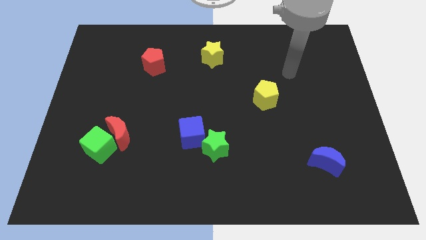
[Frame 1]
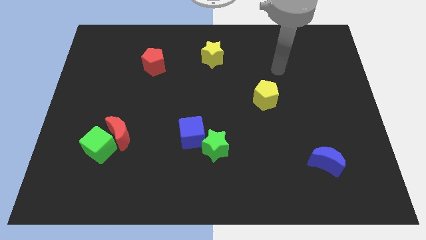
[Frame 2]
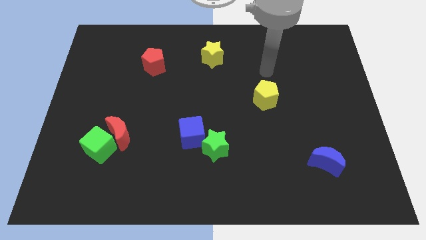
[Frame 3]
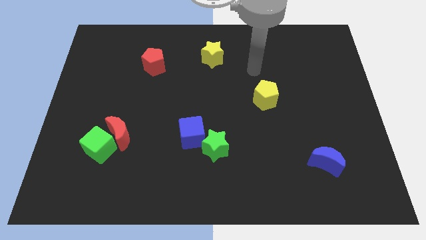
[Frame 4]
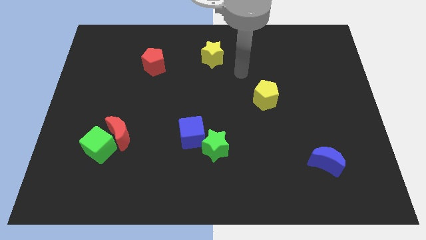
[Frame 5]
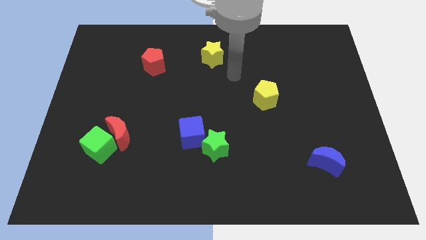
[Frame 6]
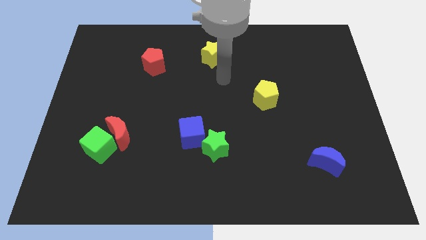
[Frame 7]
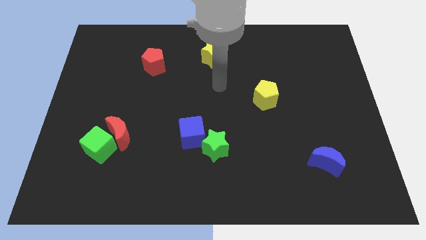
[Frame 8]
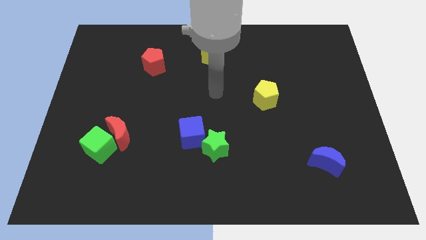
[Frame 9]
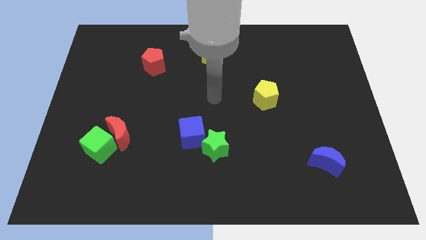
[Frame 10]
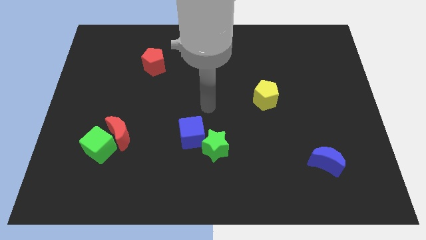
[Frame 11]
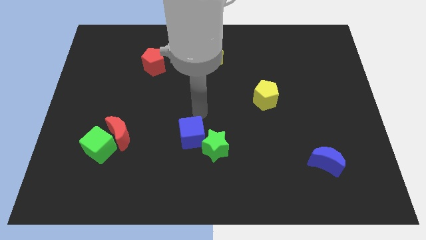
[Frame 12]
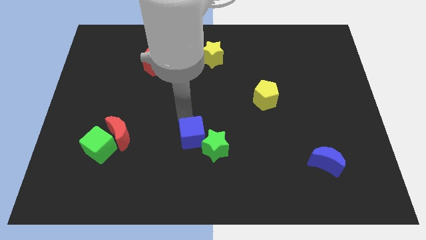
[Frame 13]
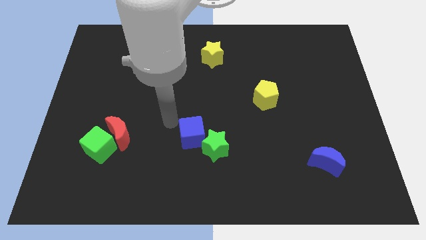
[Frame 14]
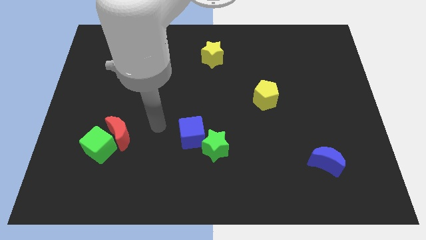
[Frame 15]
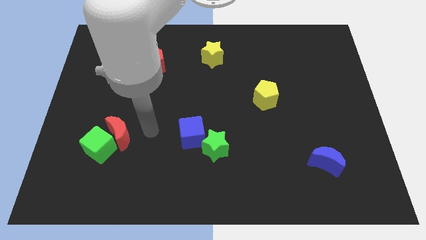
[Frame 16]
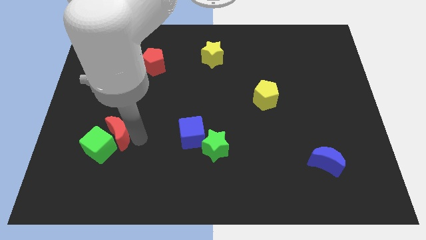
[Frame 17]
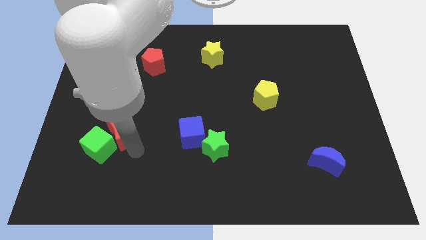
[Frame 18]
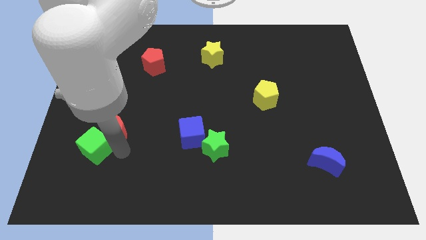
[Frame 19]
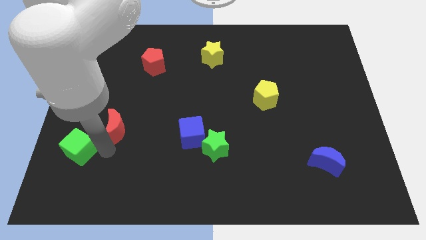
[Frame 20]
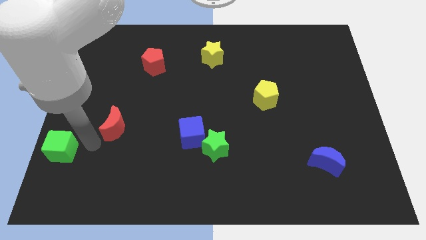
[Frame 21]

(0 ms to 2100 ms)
separate the red moon from the green cube

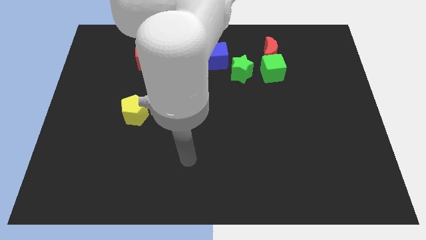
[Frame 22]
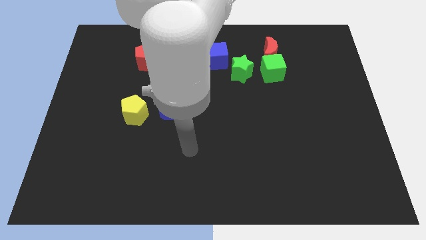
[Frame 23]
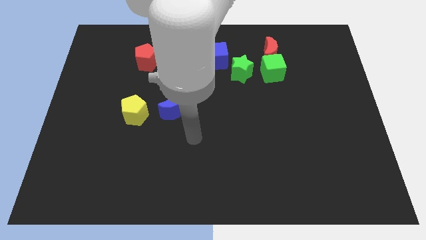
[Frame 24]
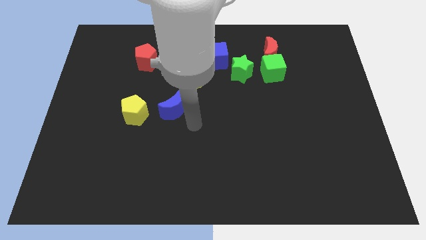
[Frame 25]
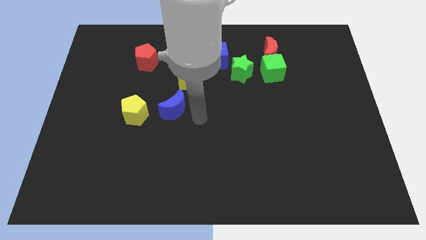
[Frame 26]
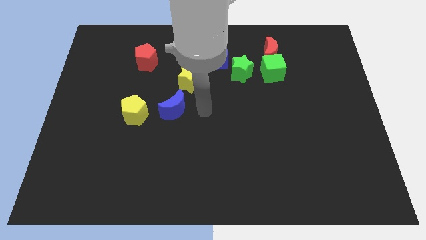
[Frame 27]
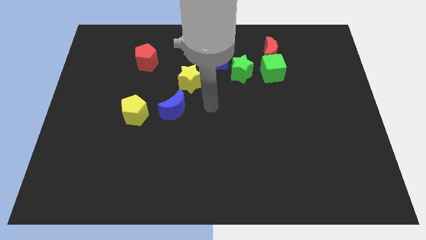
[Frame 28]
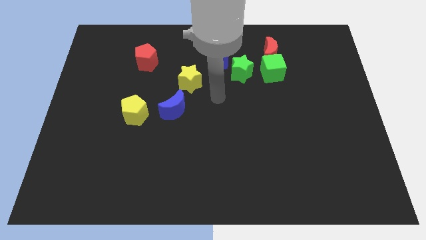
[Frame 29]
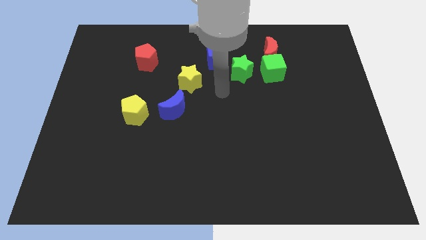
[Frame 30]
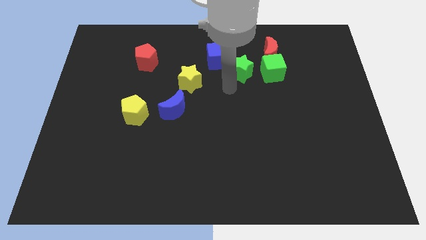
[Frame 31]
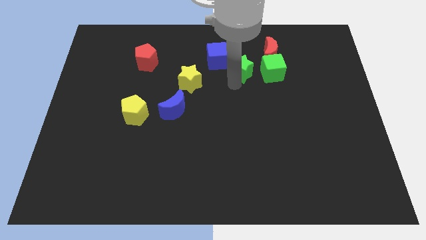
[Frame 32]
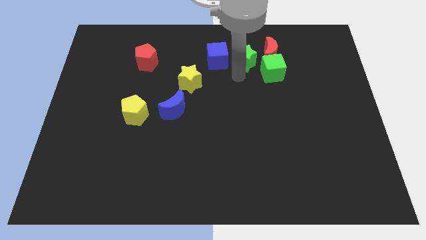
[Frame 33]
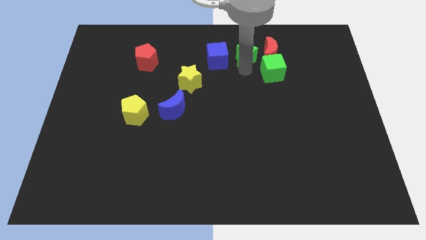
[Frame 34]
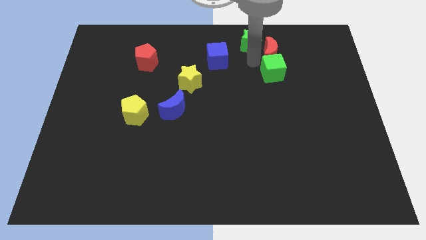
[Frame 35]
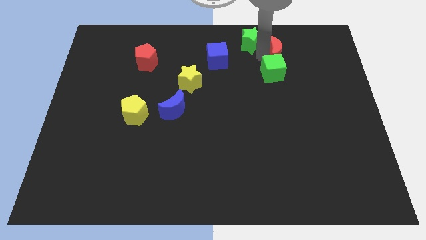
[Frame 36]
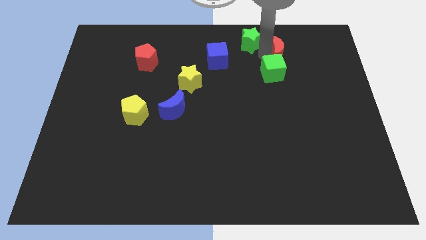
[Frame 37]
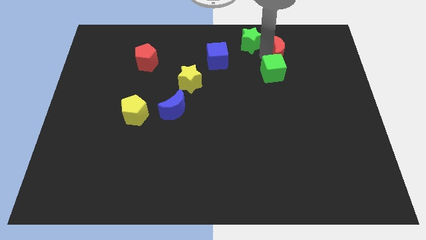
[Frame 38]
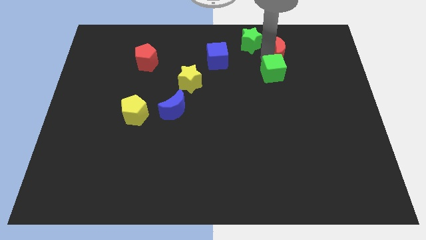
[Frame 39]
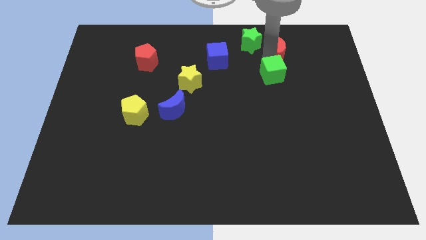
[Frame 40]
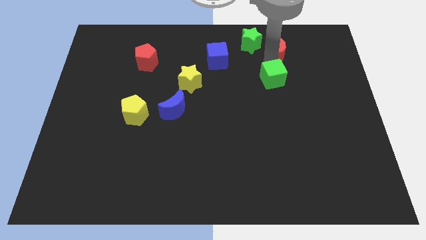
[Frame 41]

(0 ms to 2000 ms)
move the green cube away from the red moon and green star

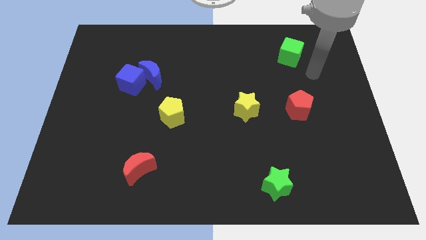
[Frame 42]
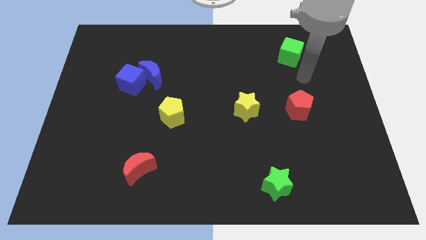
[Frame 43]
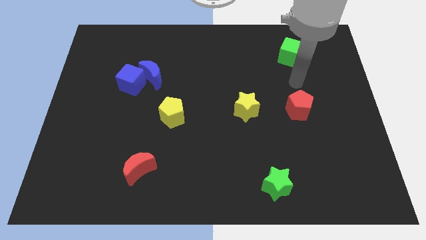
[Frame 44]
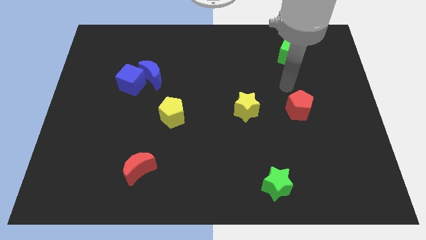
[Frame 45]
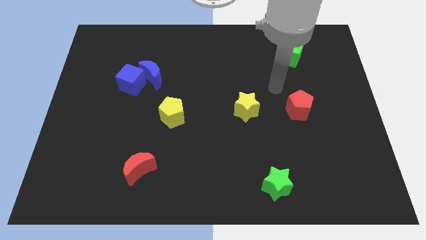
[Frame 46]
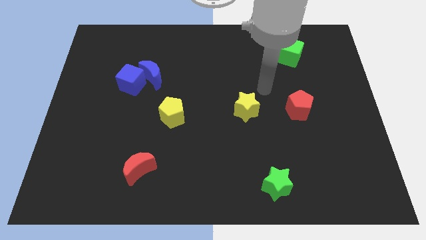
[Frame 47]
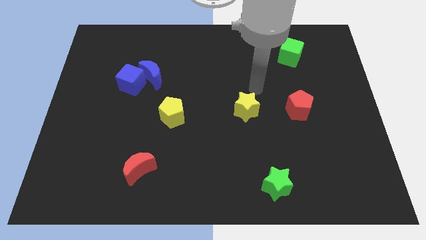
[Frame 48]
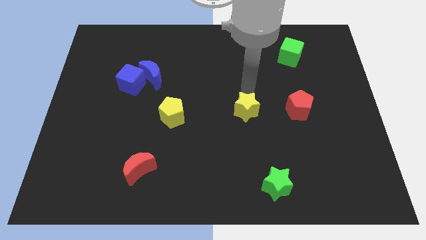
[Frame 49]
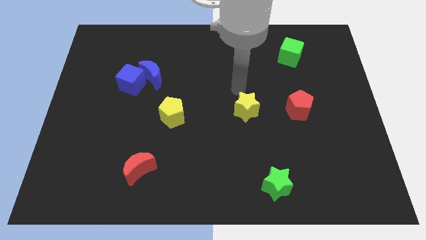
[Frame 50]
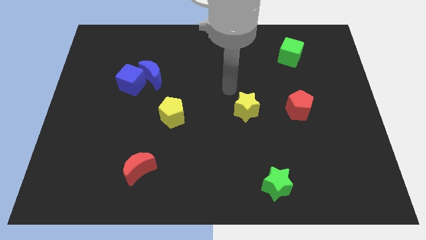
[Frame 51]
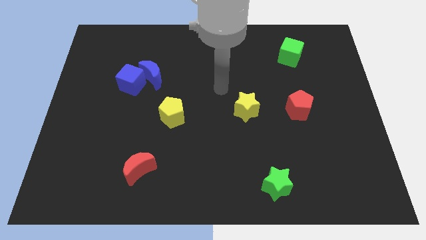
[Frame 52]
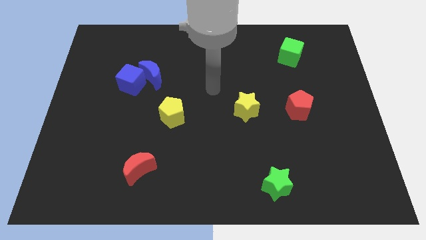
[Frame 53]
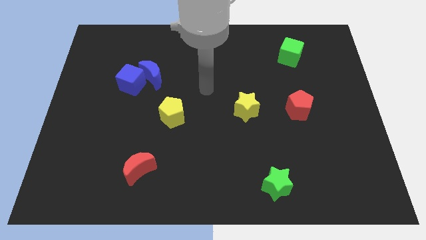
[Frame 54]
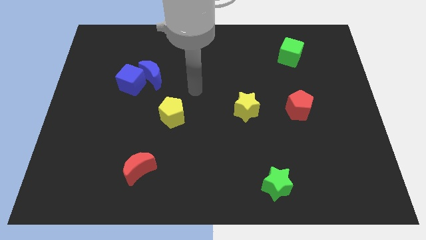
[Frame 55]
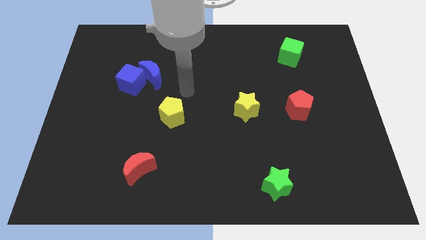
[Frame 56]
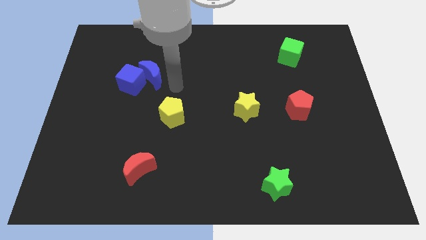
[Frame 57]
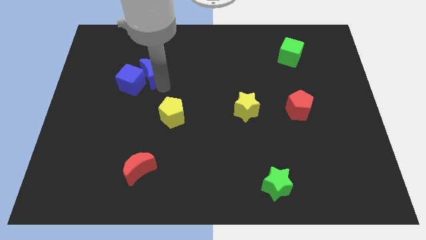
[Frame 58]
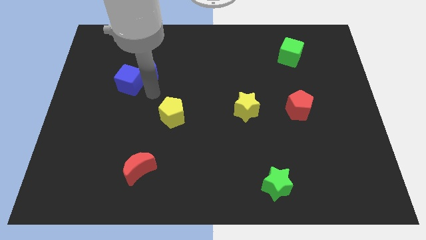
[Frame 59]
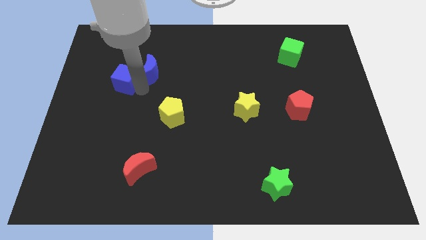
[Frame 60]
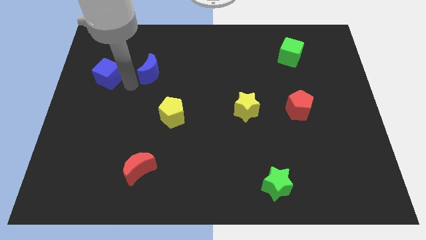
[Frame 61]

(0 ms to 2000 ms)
separate the blue moon from the blue cube

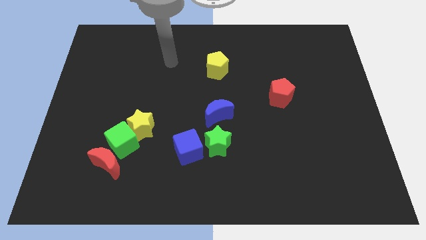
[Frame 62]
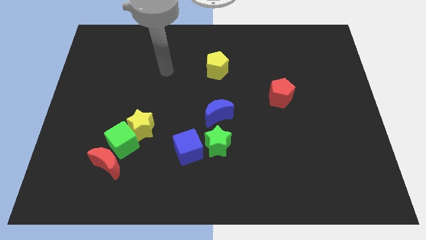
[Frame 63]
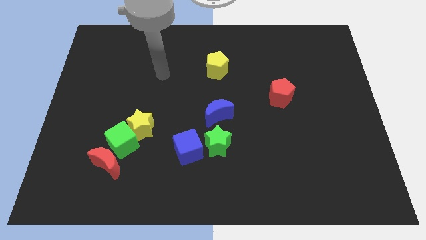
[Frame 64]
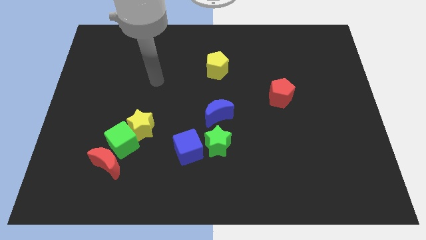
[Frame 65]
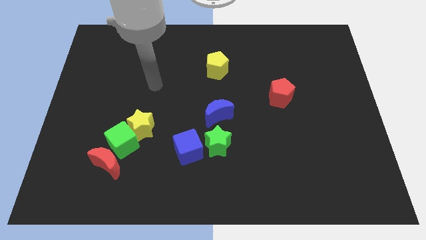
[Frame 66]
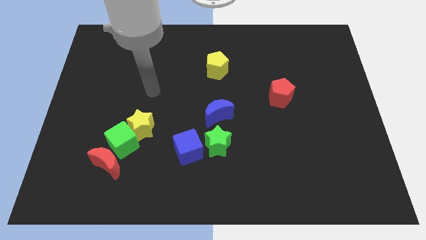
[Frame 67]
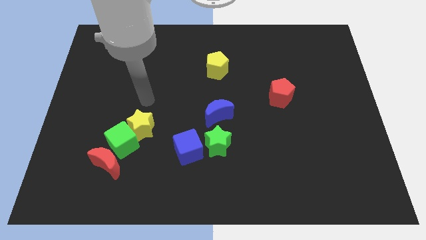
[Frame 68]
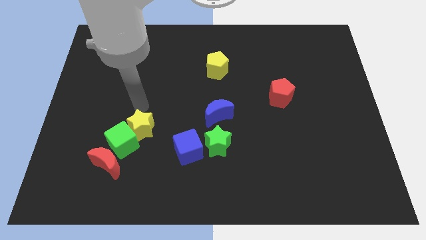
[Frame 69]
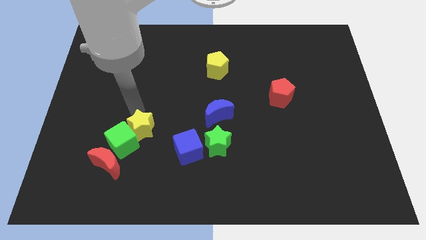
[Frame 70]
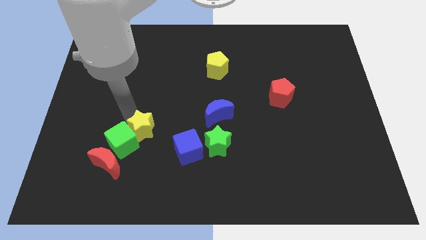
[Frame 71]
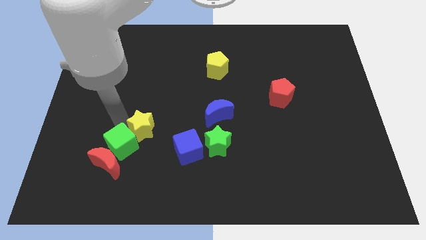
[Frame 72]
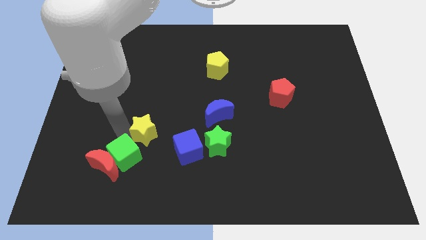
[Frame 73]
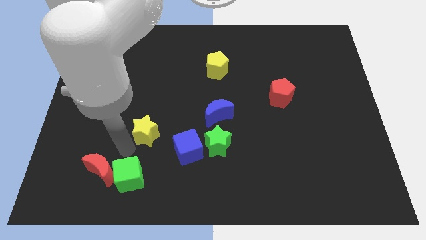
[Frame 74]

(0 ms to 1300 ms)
pull the yellow star apart from the green cube

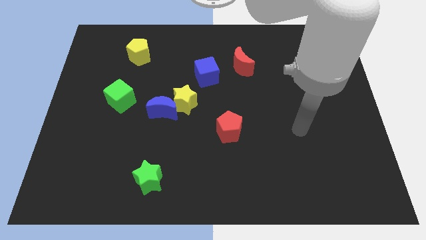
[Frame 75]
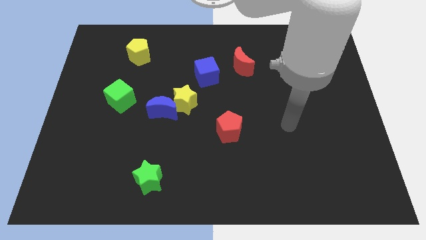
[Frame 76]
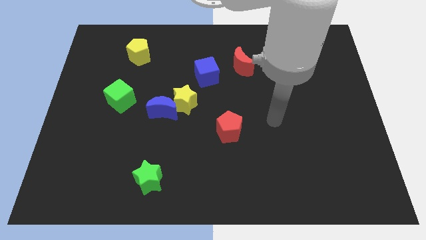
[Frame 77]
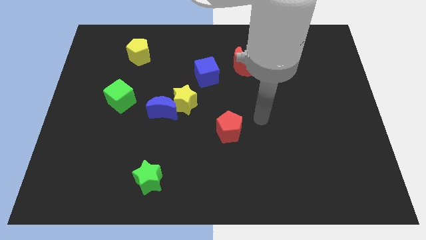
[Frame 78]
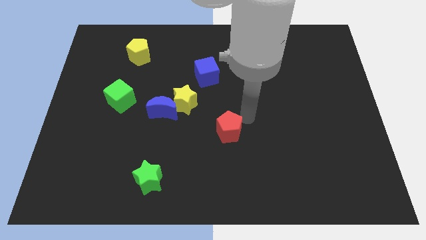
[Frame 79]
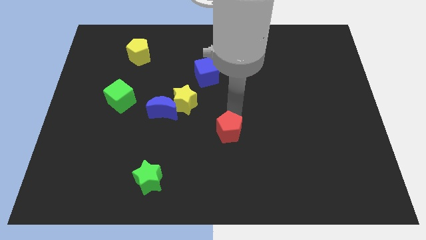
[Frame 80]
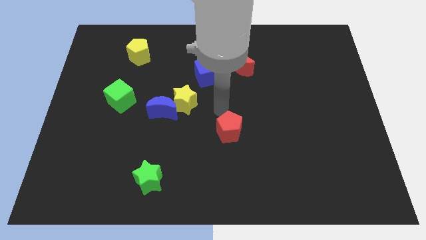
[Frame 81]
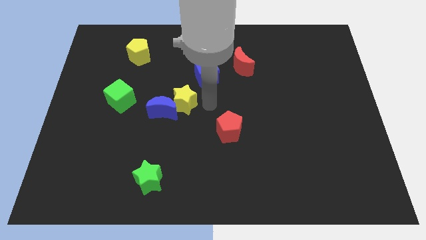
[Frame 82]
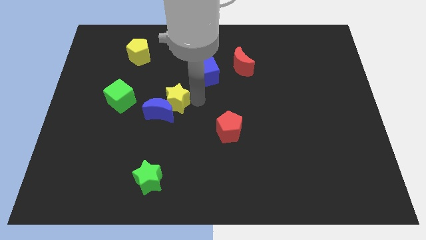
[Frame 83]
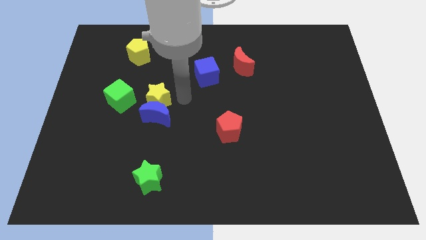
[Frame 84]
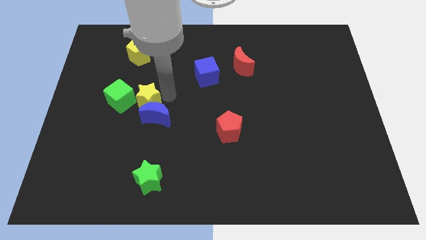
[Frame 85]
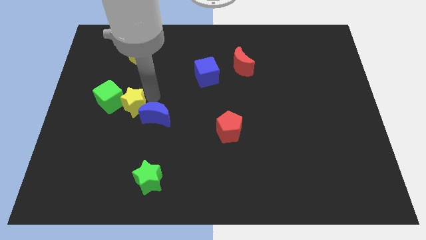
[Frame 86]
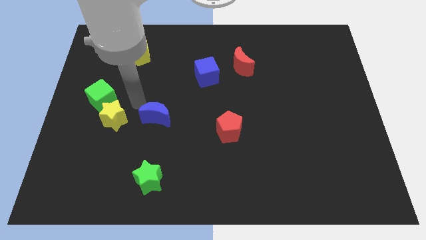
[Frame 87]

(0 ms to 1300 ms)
pull the blue moon apart from the yellow star

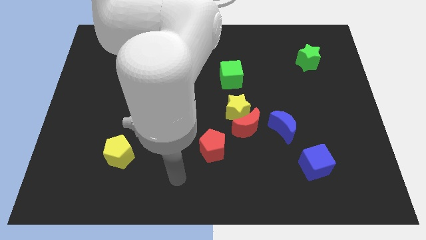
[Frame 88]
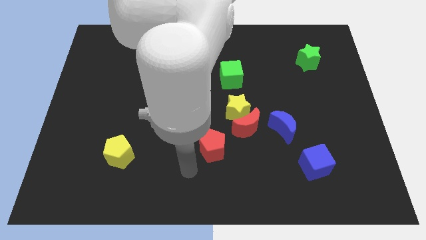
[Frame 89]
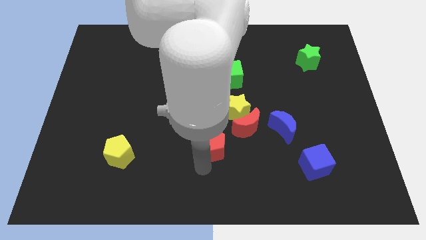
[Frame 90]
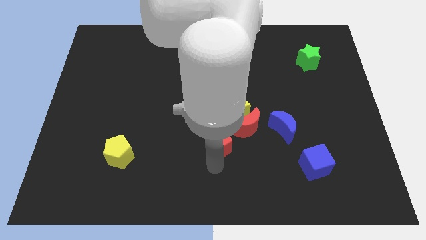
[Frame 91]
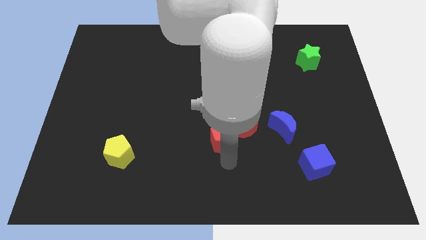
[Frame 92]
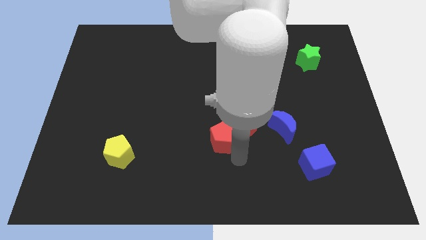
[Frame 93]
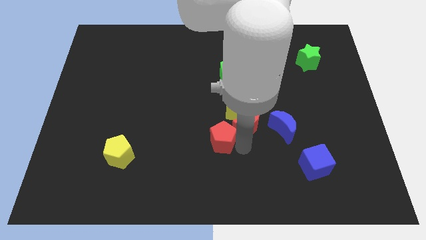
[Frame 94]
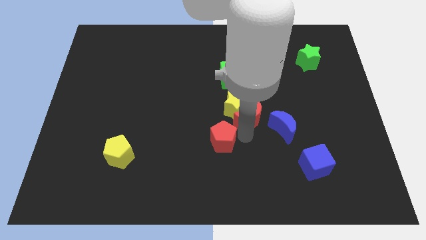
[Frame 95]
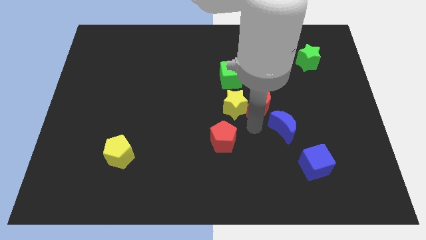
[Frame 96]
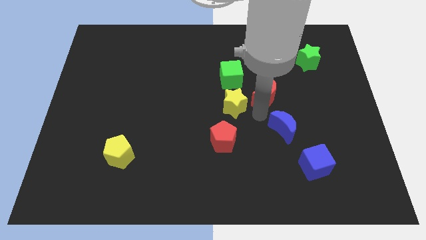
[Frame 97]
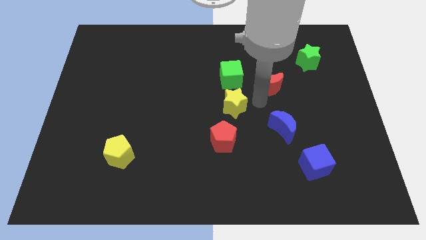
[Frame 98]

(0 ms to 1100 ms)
separate the yellow star from the red moon